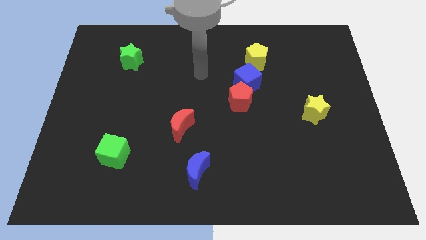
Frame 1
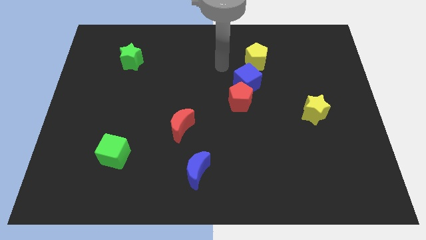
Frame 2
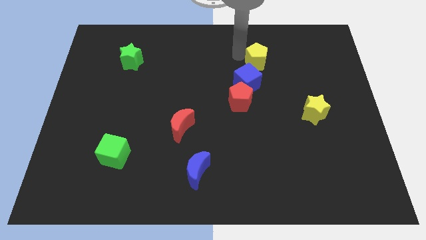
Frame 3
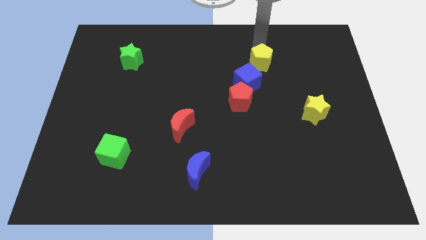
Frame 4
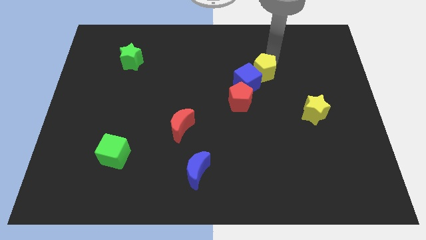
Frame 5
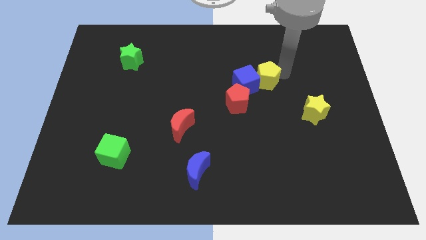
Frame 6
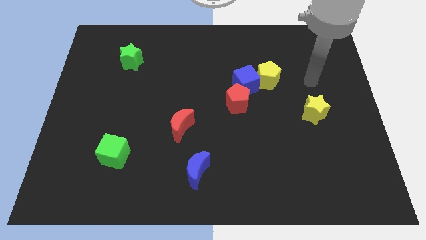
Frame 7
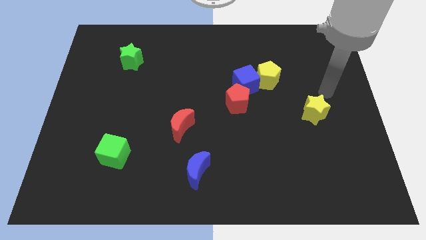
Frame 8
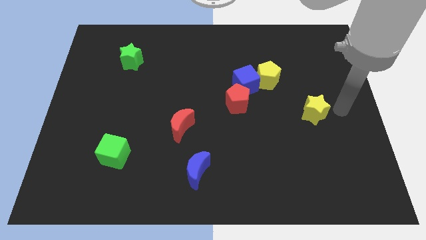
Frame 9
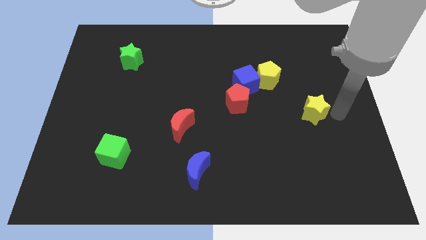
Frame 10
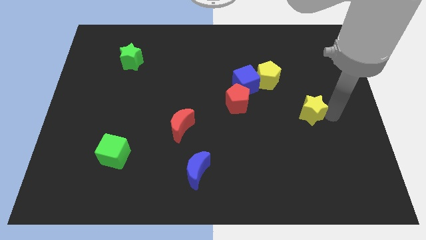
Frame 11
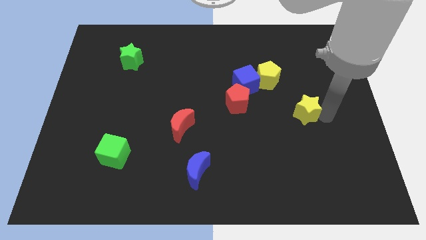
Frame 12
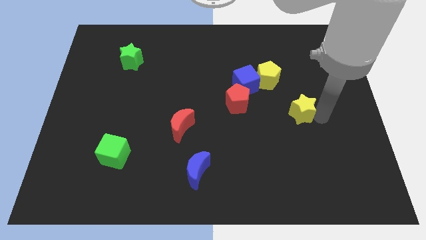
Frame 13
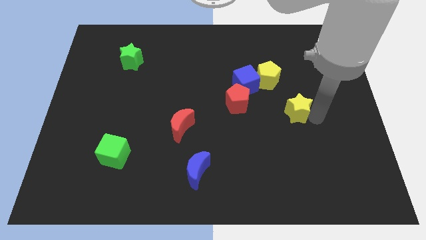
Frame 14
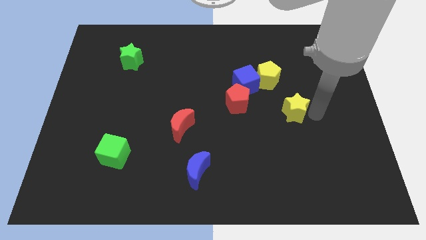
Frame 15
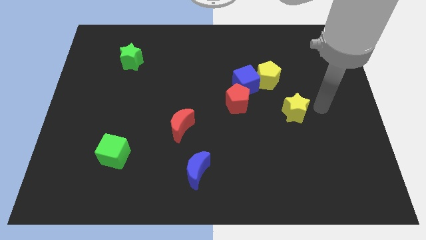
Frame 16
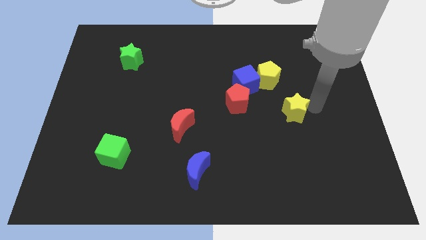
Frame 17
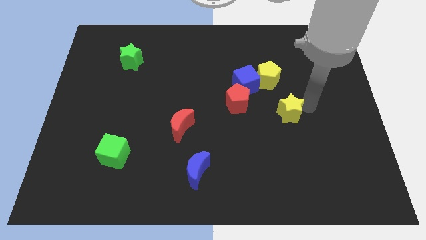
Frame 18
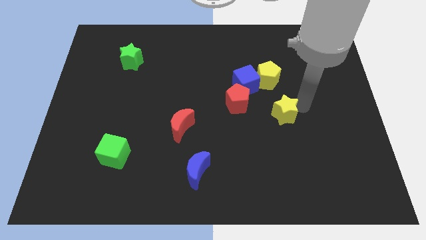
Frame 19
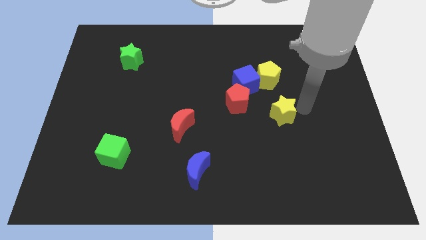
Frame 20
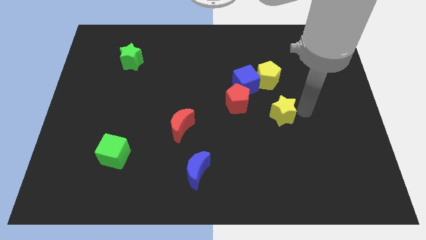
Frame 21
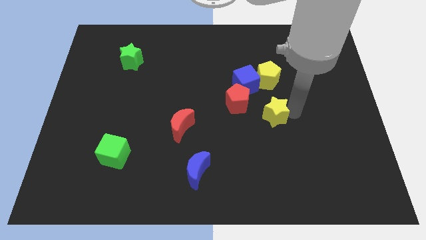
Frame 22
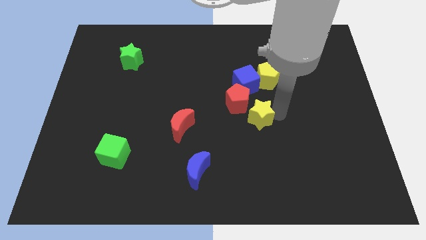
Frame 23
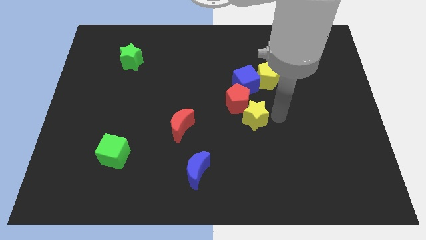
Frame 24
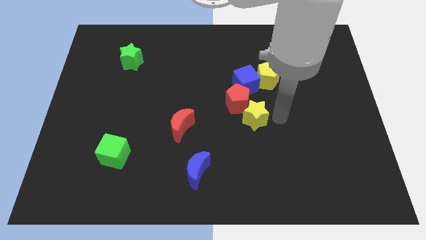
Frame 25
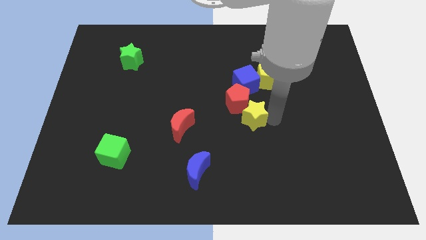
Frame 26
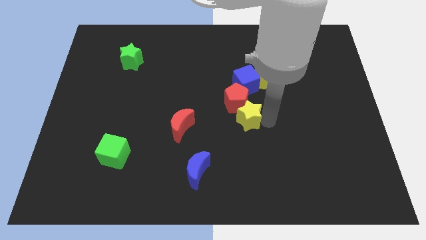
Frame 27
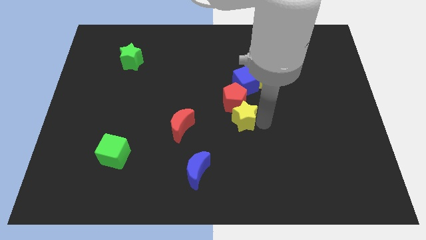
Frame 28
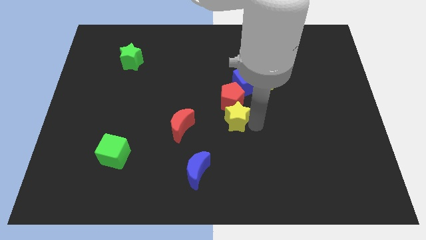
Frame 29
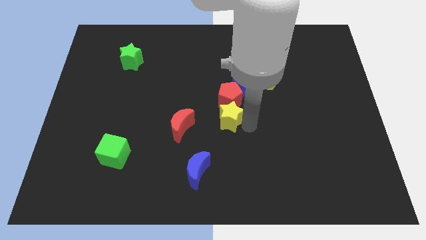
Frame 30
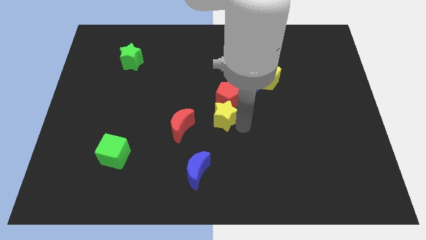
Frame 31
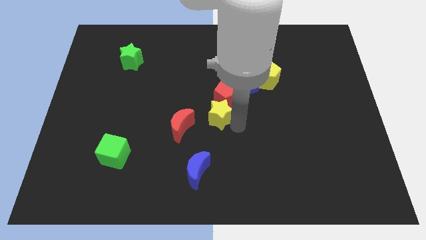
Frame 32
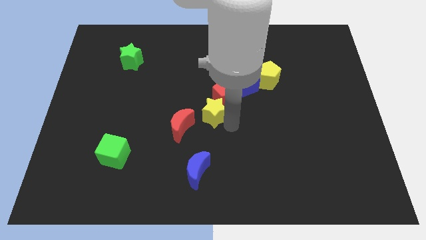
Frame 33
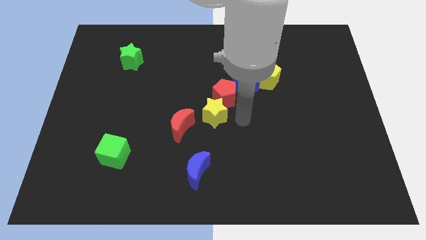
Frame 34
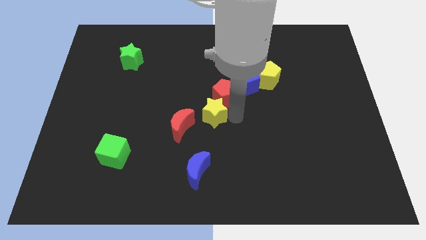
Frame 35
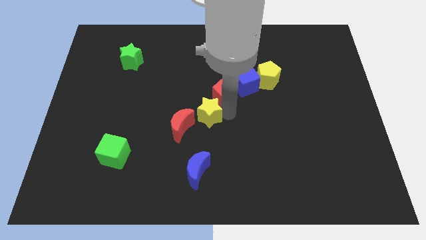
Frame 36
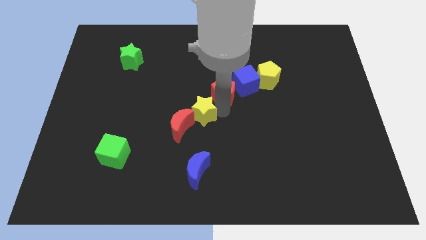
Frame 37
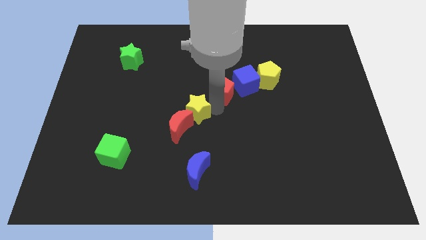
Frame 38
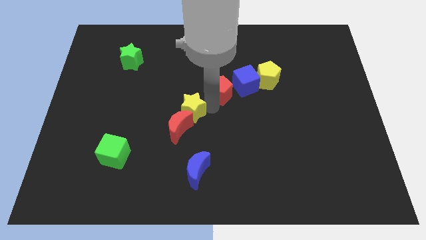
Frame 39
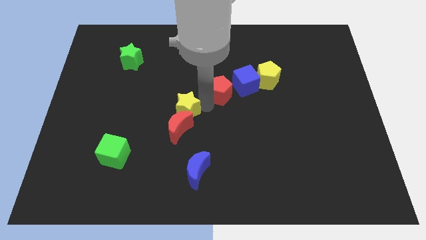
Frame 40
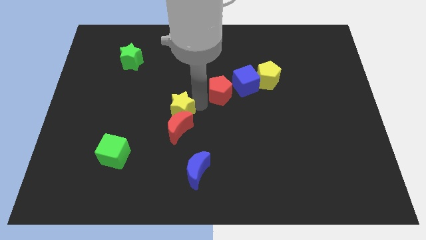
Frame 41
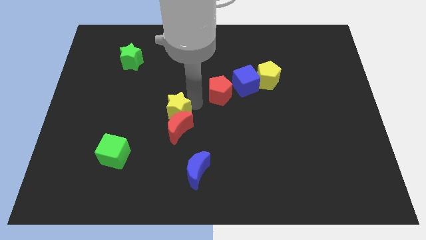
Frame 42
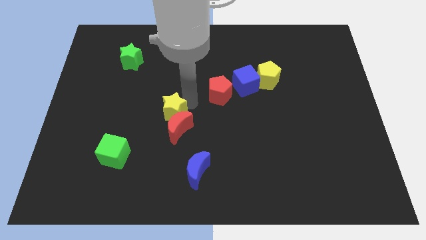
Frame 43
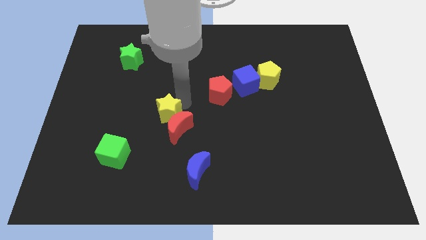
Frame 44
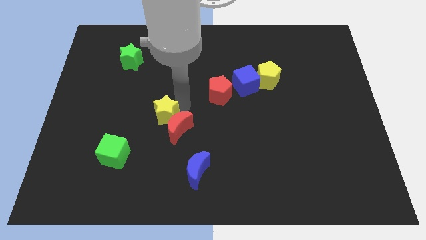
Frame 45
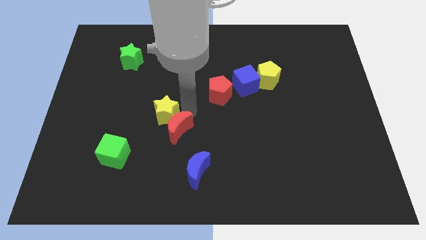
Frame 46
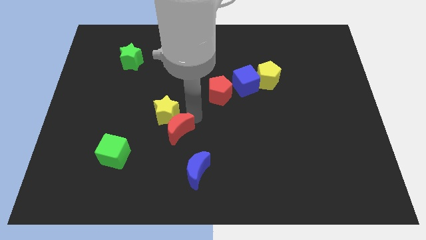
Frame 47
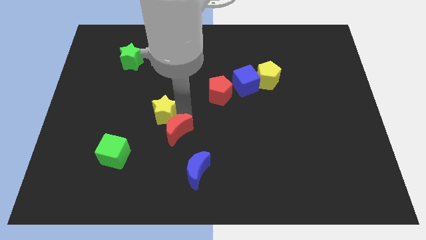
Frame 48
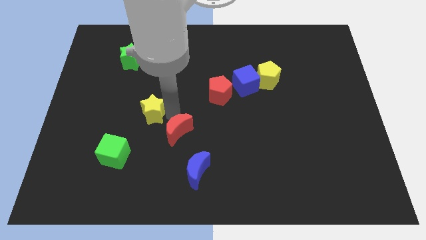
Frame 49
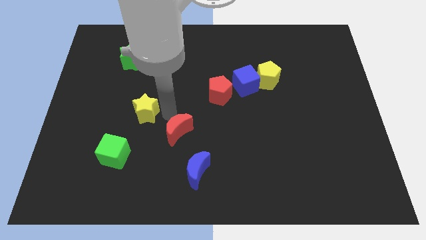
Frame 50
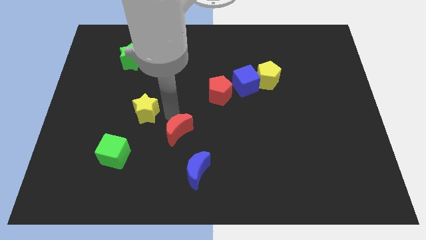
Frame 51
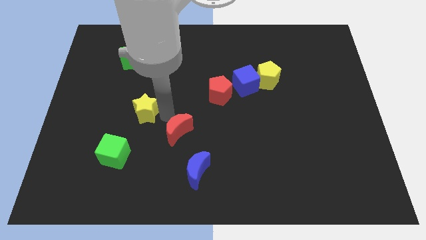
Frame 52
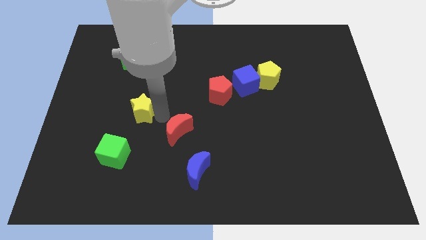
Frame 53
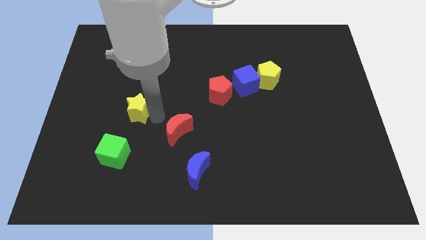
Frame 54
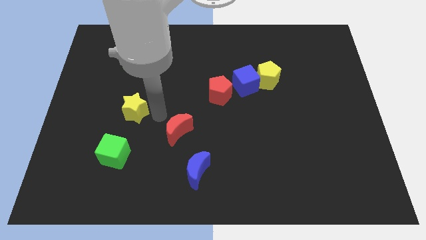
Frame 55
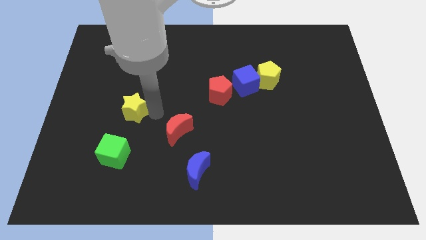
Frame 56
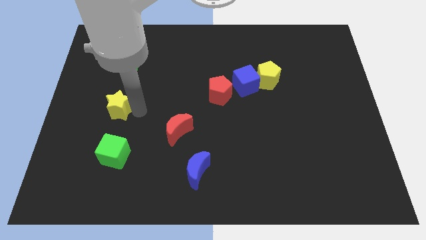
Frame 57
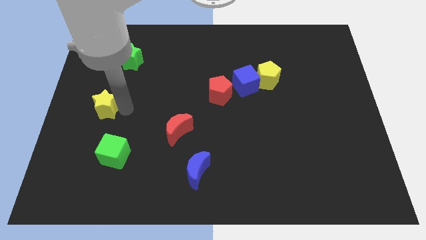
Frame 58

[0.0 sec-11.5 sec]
move the yellow star to the left side

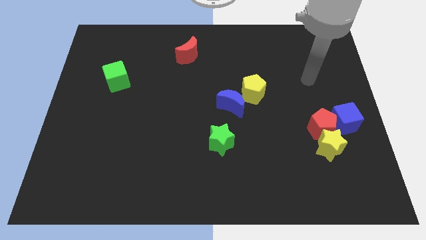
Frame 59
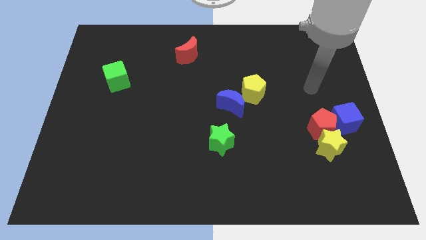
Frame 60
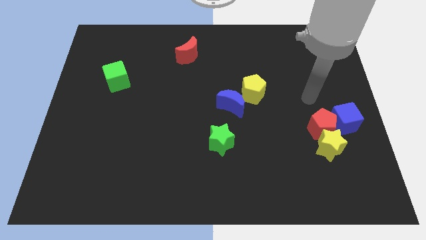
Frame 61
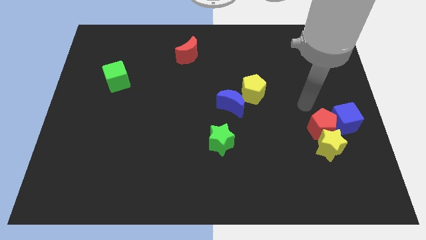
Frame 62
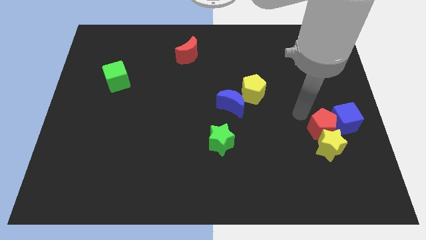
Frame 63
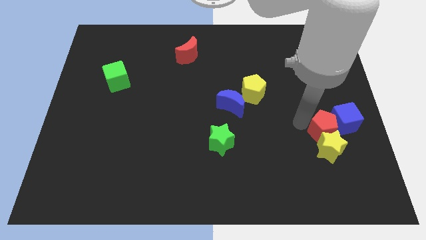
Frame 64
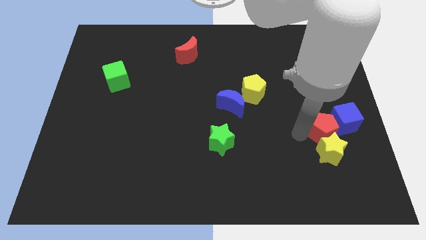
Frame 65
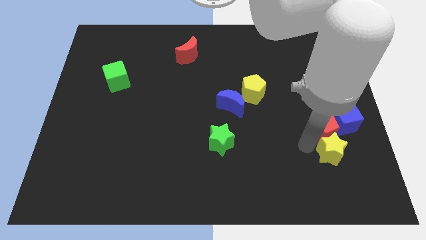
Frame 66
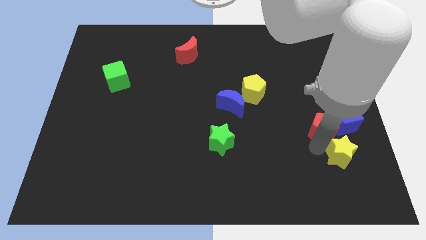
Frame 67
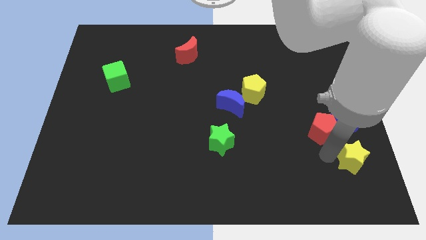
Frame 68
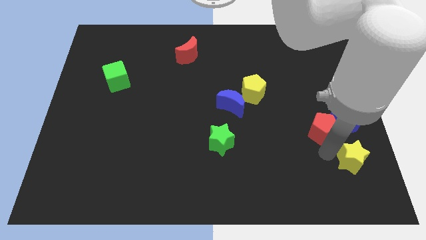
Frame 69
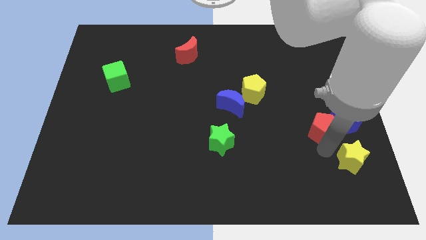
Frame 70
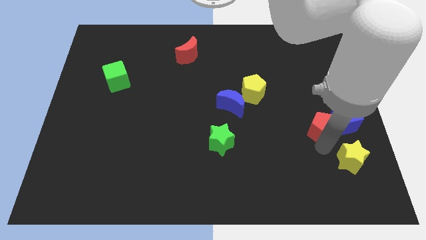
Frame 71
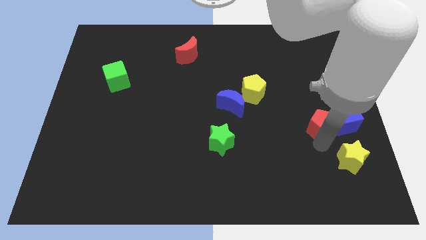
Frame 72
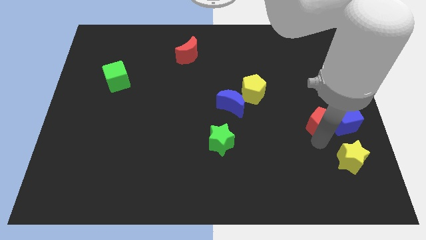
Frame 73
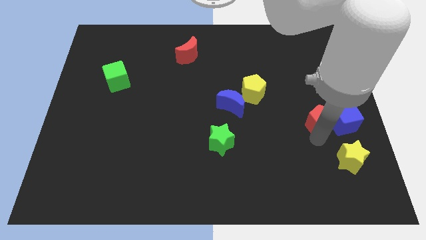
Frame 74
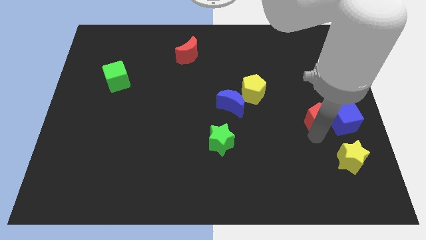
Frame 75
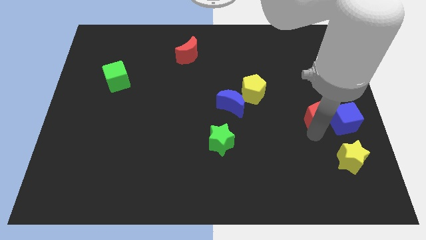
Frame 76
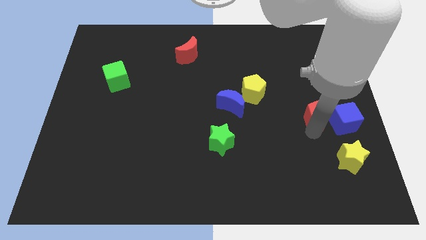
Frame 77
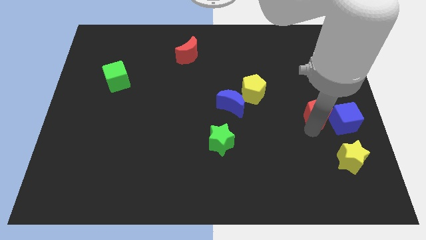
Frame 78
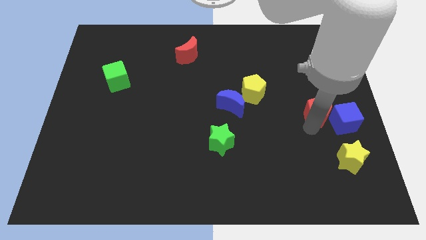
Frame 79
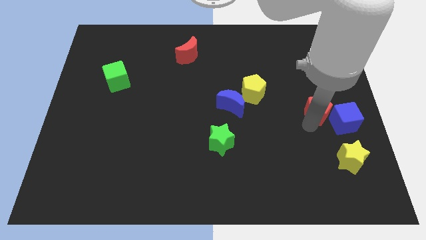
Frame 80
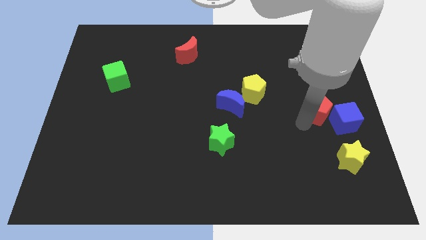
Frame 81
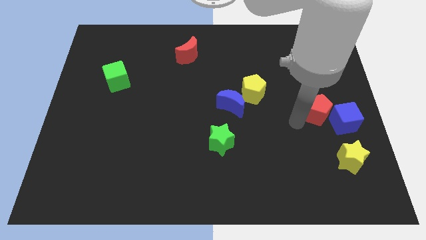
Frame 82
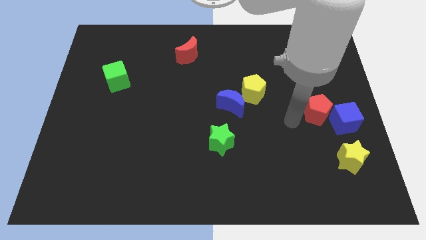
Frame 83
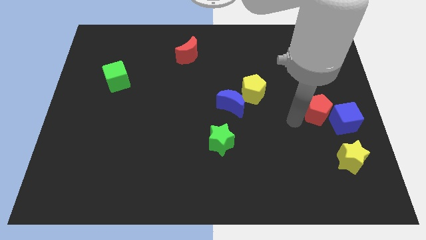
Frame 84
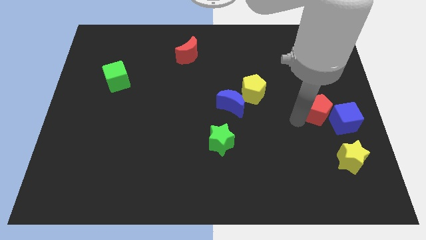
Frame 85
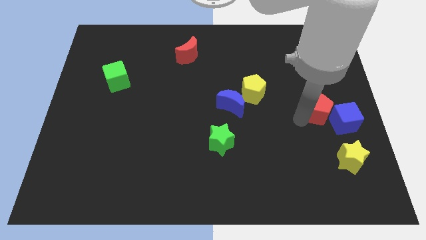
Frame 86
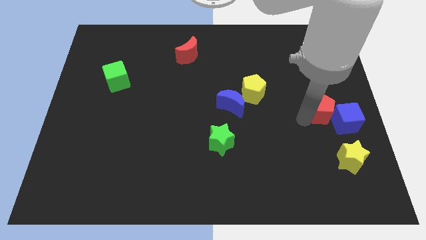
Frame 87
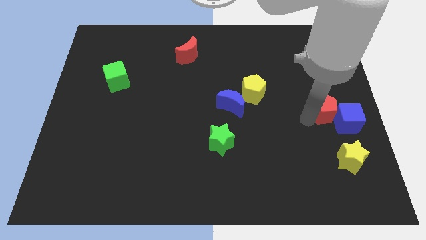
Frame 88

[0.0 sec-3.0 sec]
push the red pentagon to the center right
